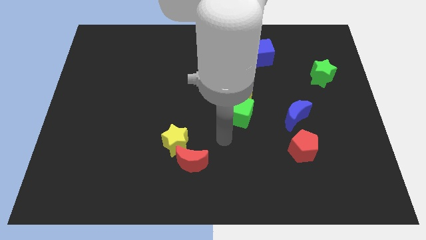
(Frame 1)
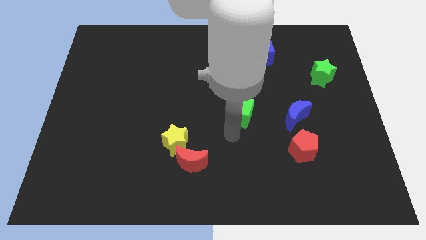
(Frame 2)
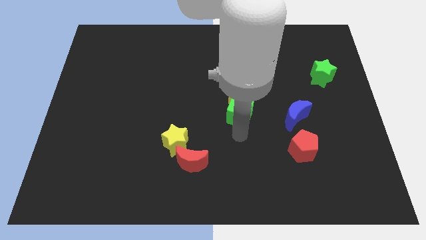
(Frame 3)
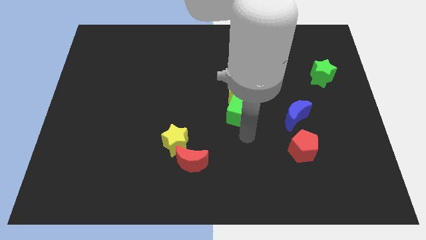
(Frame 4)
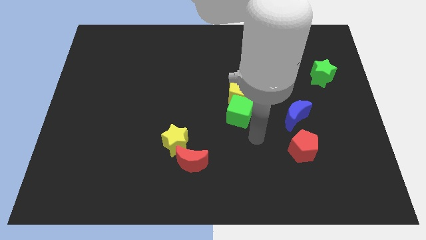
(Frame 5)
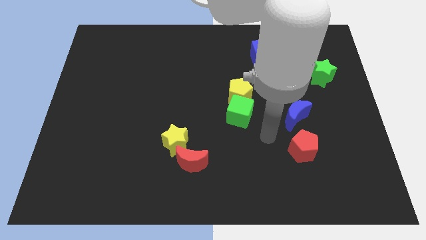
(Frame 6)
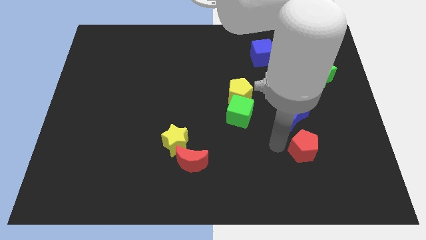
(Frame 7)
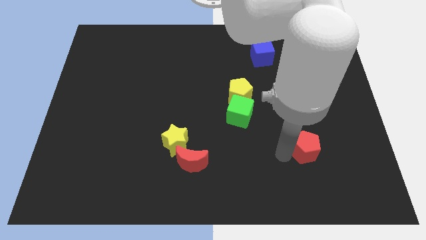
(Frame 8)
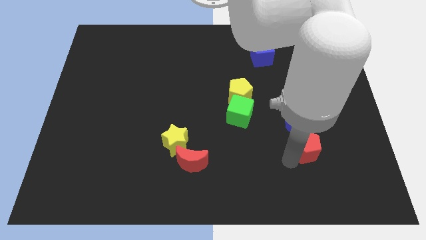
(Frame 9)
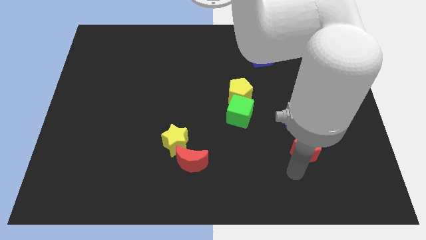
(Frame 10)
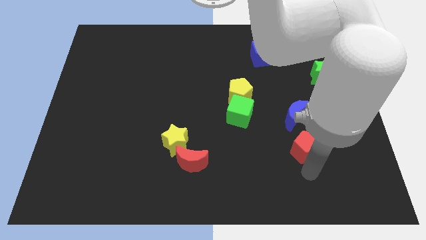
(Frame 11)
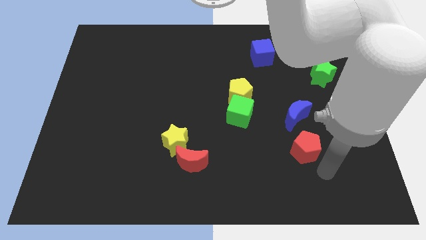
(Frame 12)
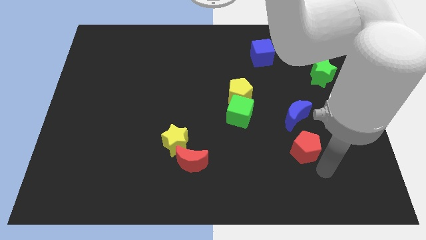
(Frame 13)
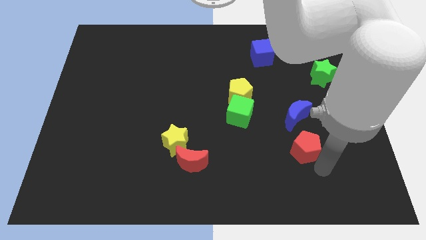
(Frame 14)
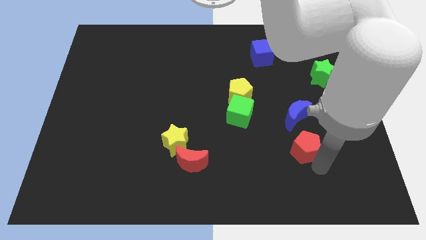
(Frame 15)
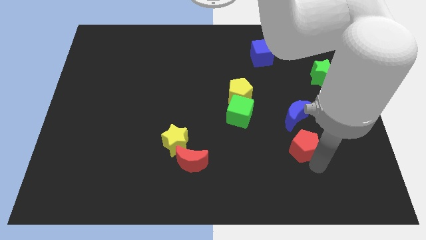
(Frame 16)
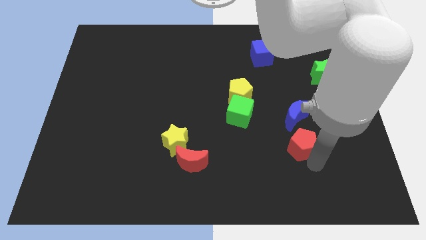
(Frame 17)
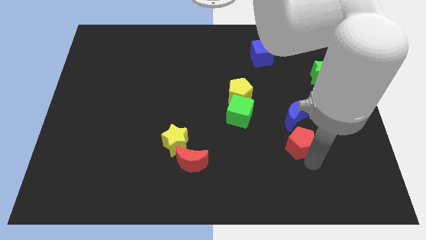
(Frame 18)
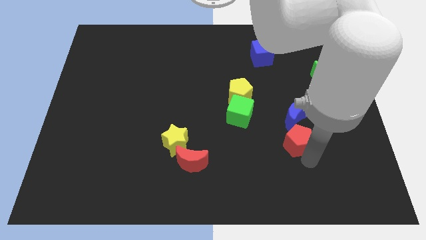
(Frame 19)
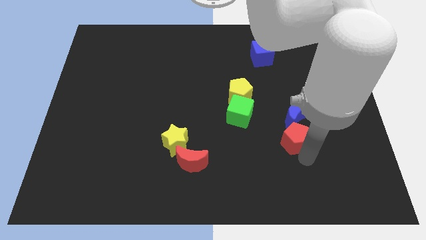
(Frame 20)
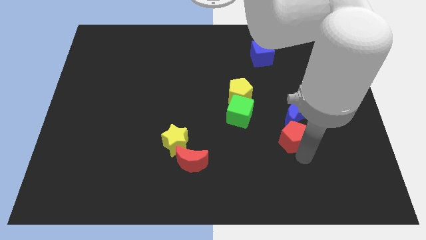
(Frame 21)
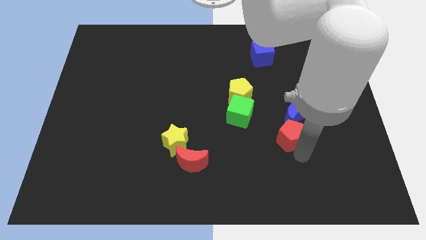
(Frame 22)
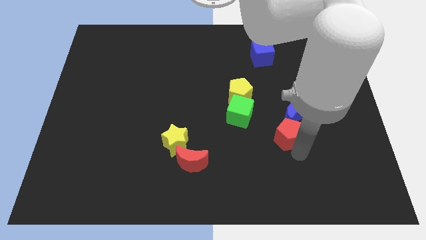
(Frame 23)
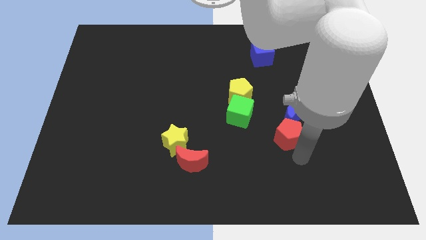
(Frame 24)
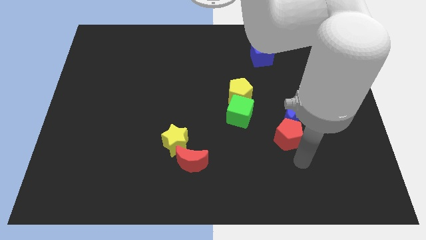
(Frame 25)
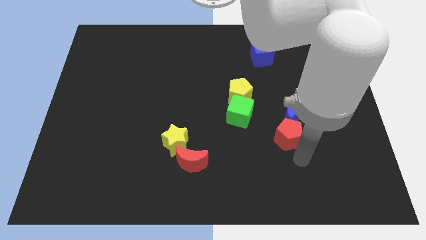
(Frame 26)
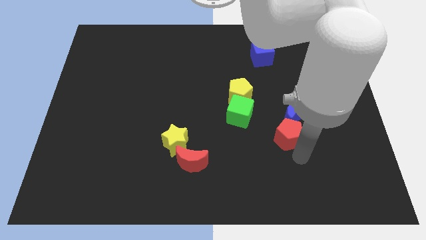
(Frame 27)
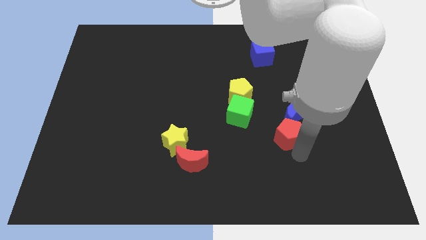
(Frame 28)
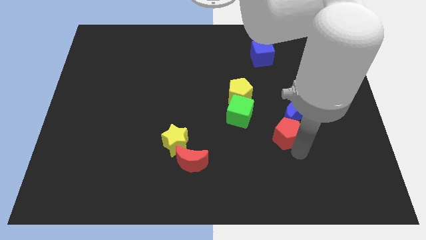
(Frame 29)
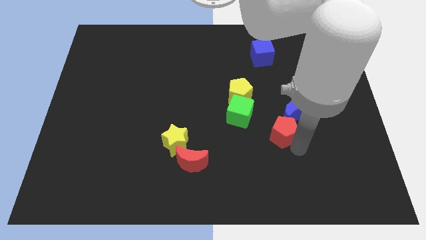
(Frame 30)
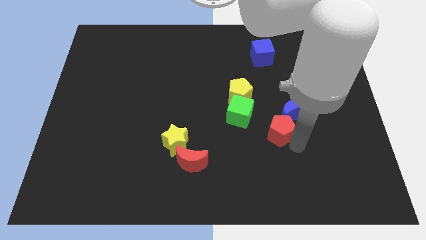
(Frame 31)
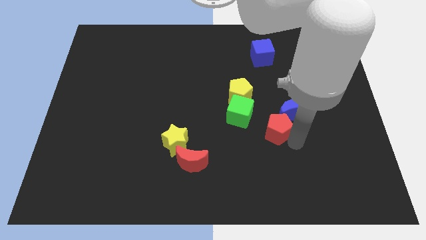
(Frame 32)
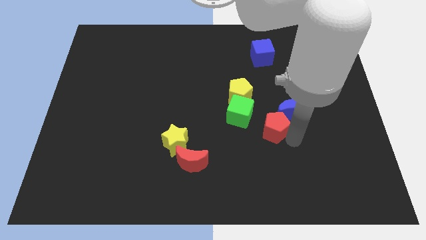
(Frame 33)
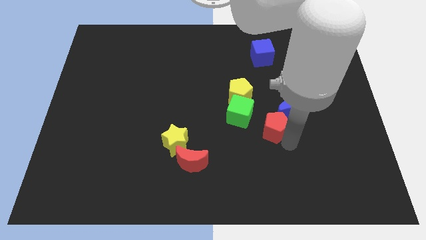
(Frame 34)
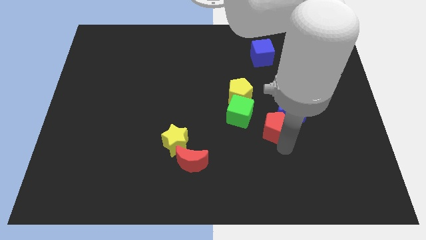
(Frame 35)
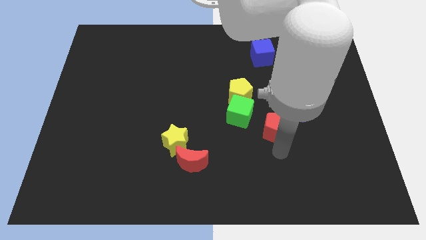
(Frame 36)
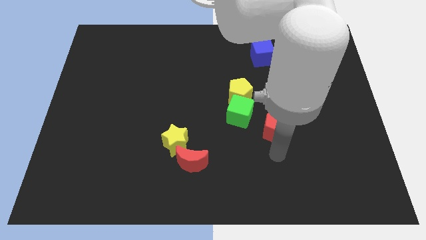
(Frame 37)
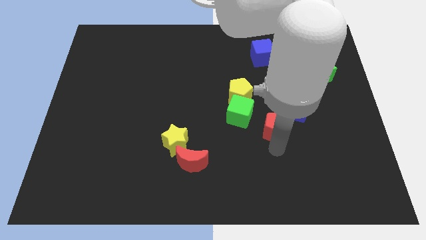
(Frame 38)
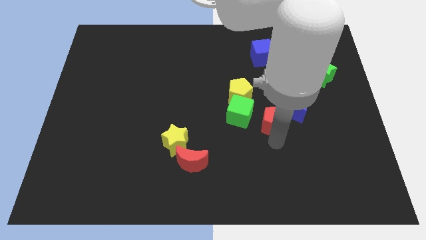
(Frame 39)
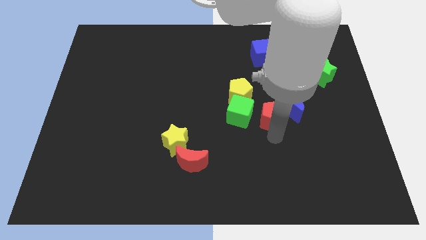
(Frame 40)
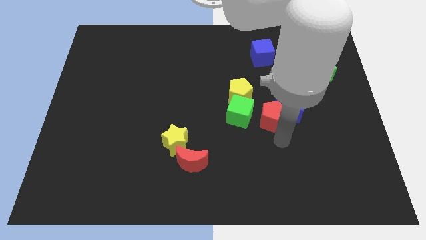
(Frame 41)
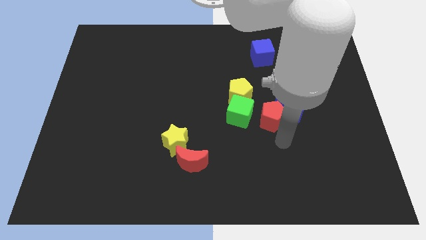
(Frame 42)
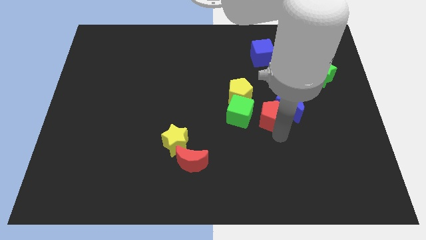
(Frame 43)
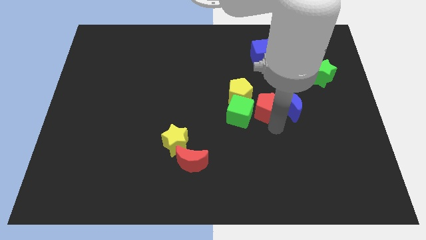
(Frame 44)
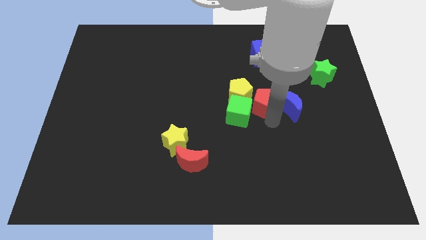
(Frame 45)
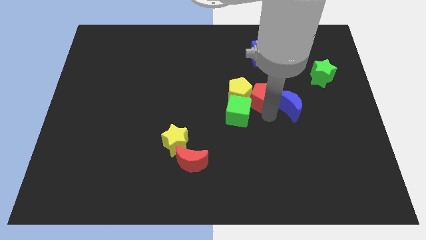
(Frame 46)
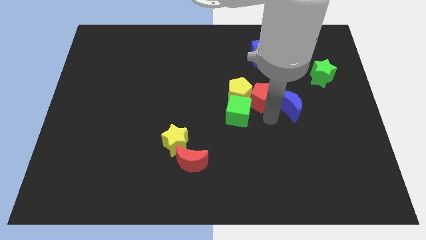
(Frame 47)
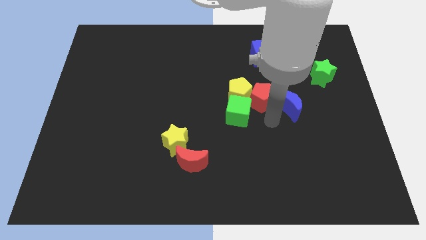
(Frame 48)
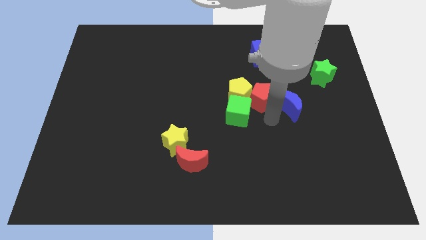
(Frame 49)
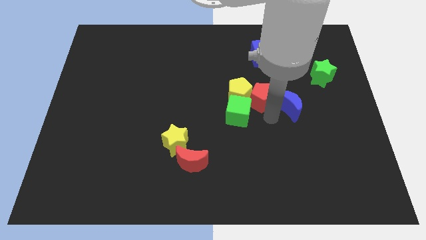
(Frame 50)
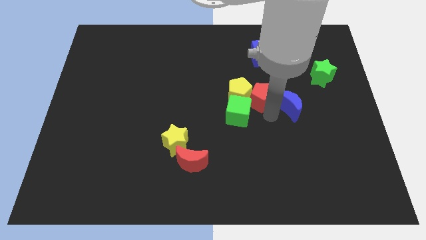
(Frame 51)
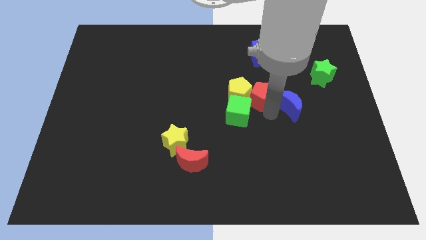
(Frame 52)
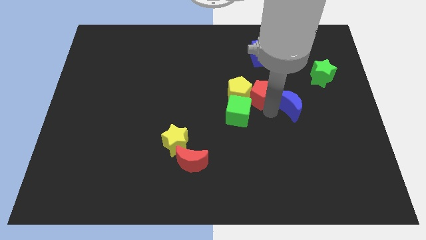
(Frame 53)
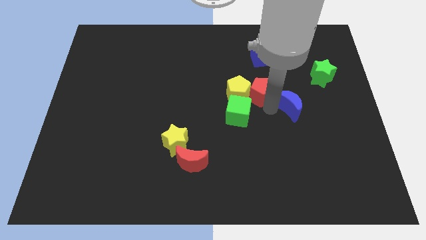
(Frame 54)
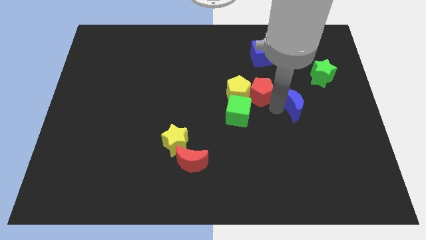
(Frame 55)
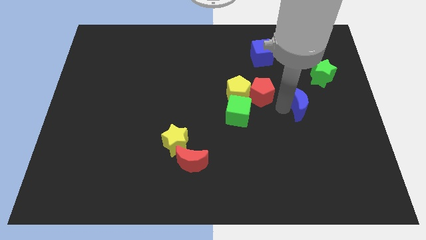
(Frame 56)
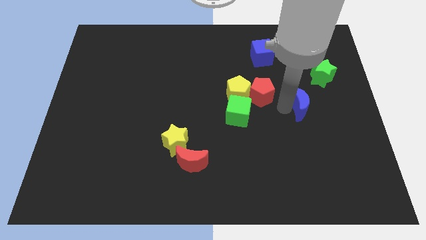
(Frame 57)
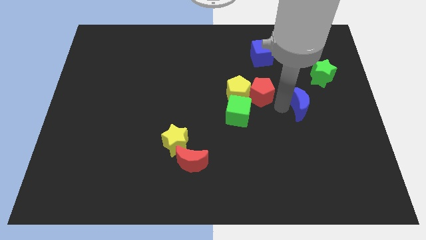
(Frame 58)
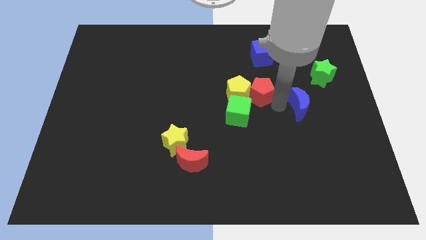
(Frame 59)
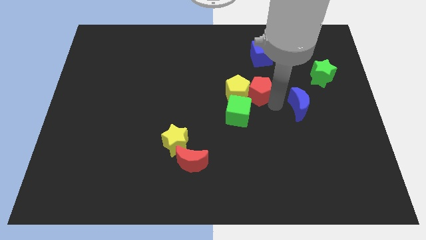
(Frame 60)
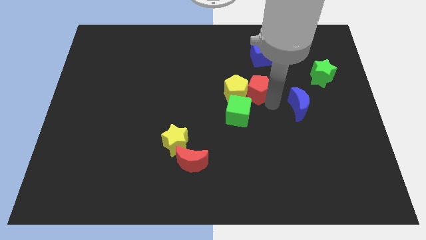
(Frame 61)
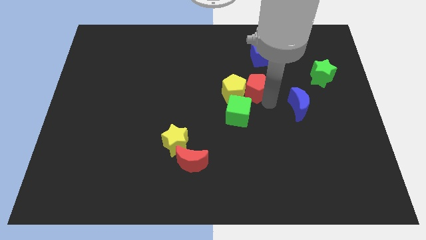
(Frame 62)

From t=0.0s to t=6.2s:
slide the red pentagon to the top side of the green cube

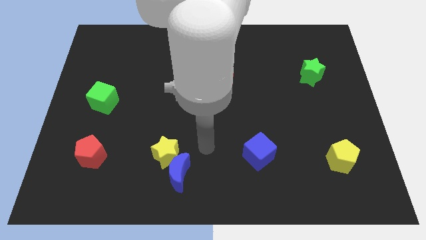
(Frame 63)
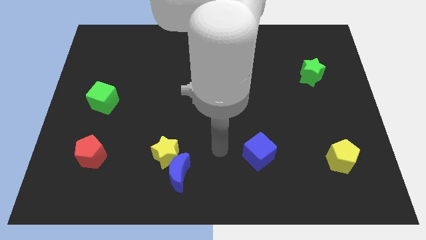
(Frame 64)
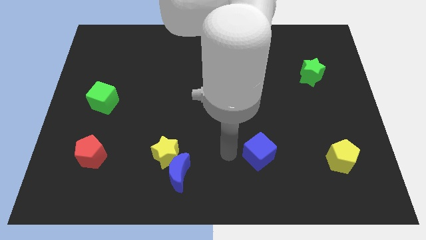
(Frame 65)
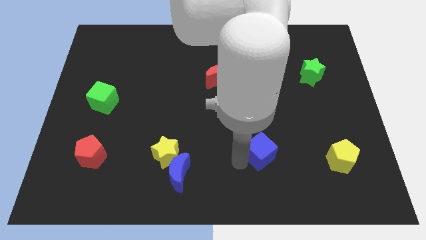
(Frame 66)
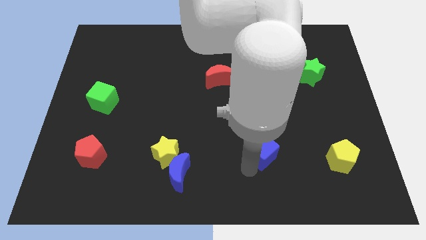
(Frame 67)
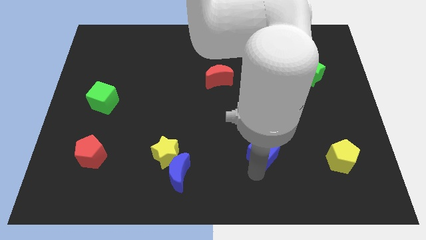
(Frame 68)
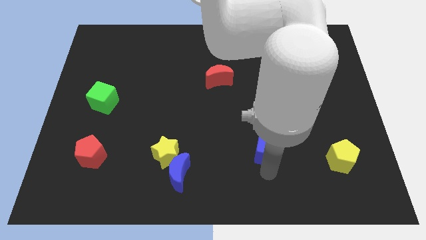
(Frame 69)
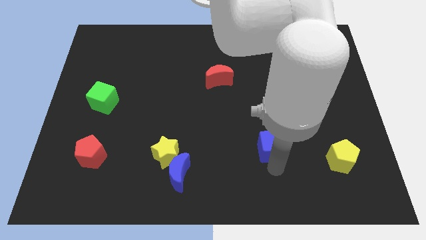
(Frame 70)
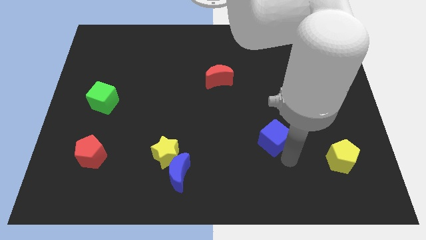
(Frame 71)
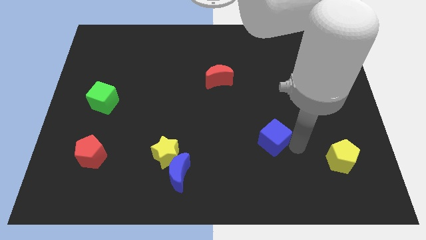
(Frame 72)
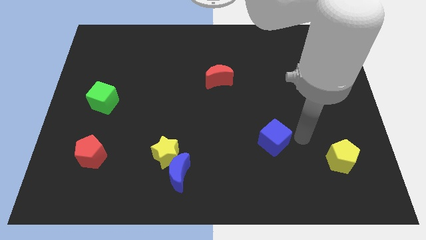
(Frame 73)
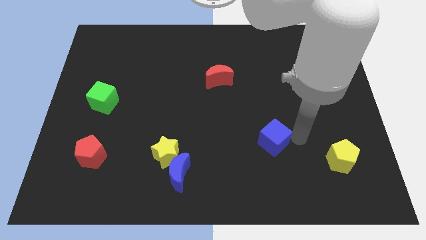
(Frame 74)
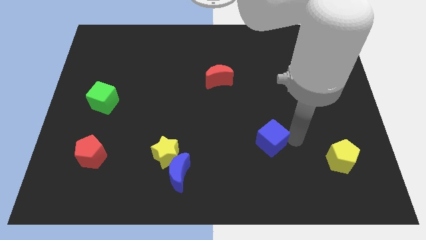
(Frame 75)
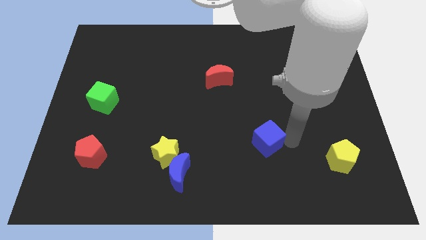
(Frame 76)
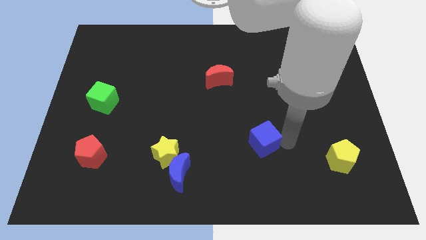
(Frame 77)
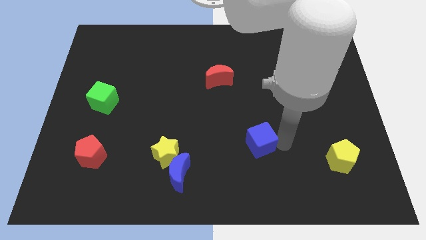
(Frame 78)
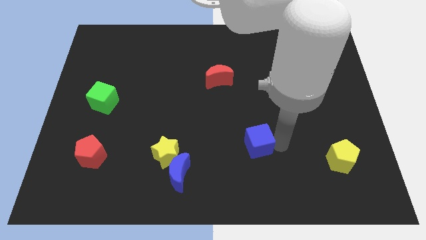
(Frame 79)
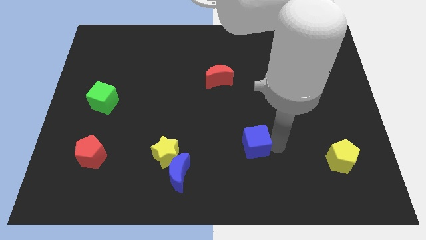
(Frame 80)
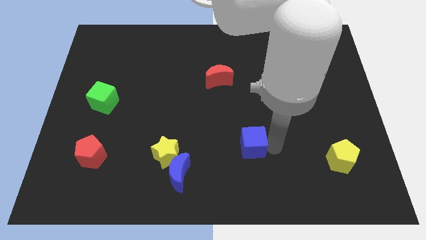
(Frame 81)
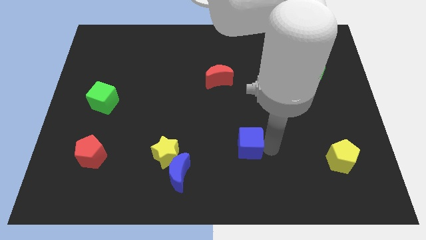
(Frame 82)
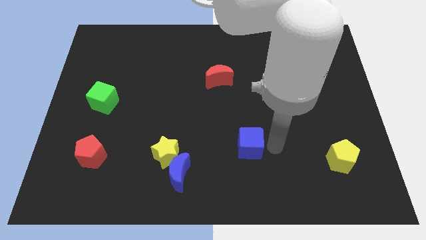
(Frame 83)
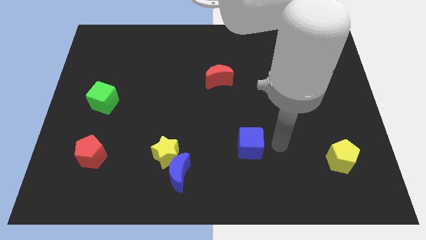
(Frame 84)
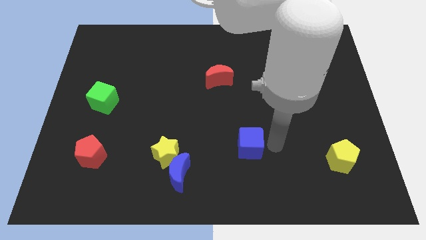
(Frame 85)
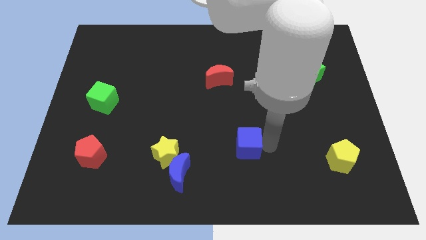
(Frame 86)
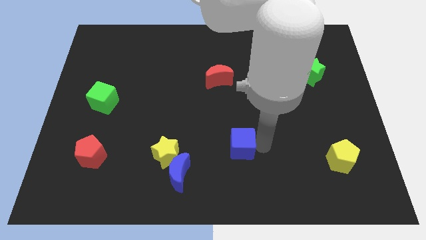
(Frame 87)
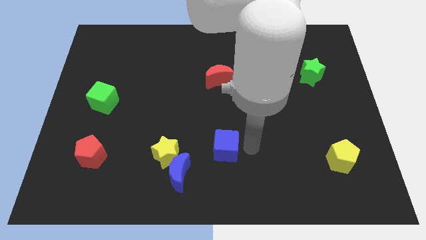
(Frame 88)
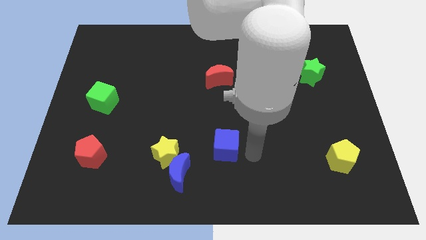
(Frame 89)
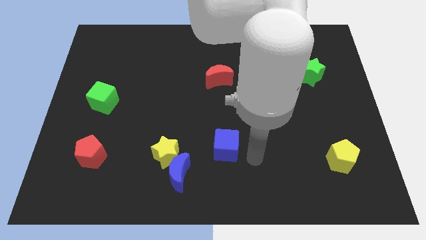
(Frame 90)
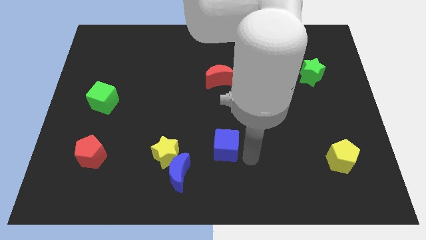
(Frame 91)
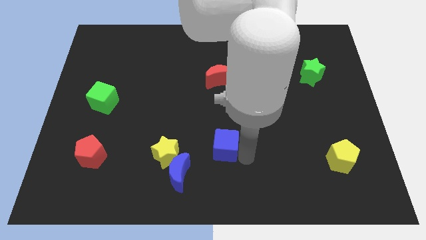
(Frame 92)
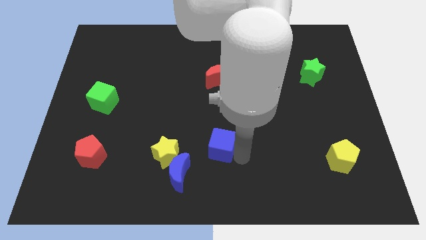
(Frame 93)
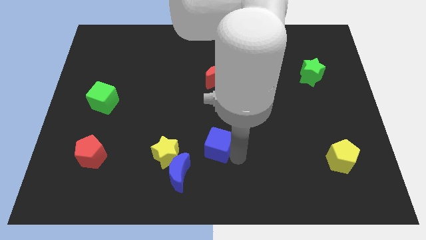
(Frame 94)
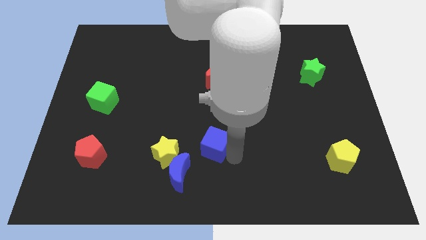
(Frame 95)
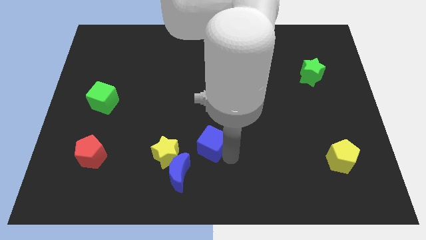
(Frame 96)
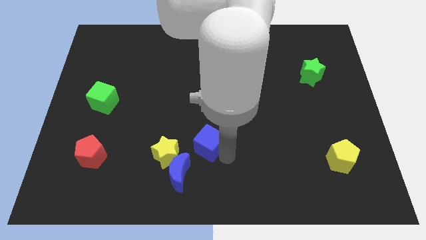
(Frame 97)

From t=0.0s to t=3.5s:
push the blue cube to the top right side of the yellow star
